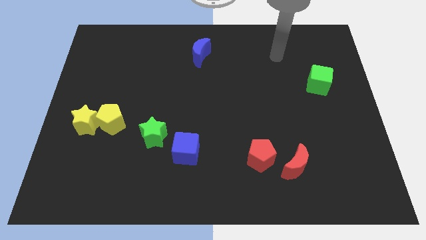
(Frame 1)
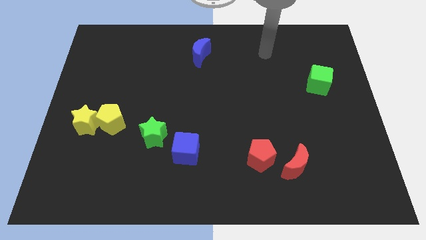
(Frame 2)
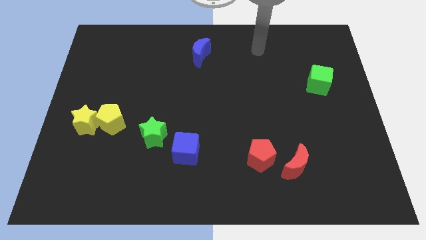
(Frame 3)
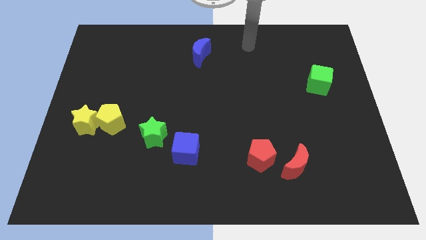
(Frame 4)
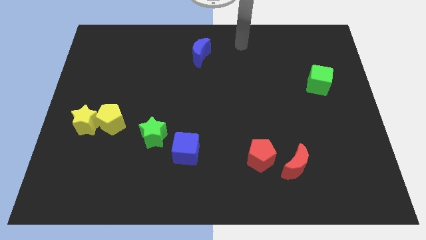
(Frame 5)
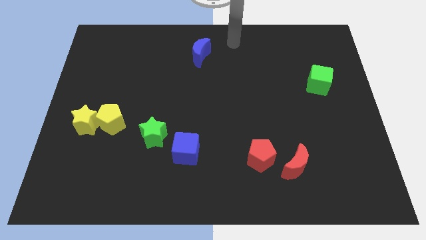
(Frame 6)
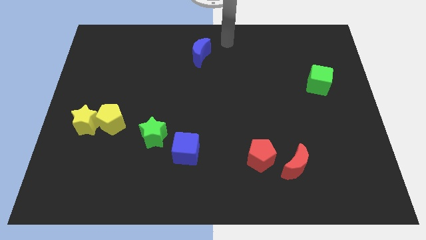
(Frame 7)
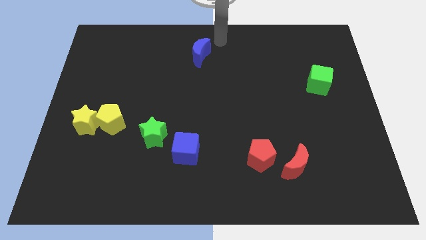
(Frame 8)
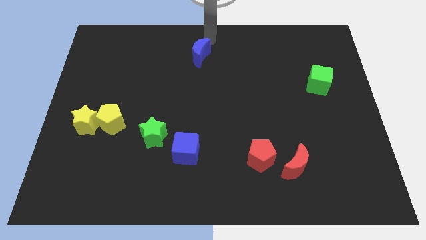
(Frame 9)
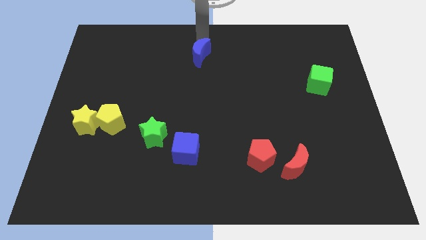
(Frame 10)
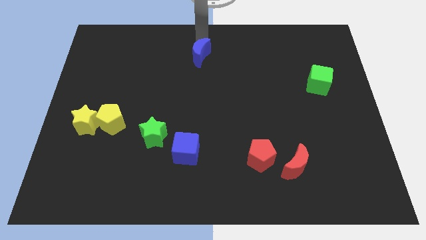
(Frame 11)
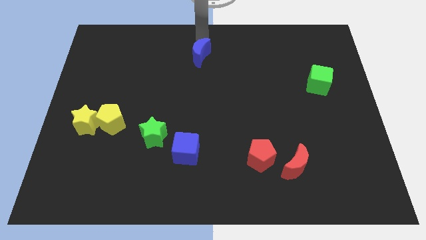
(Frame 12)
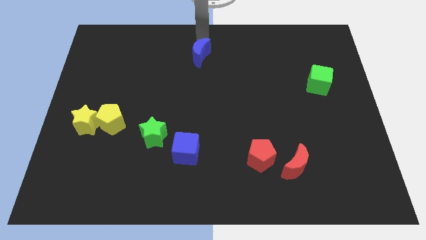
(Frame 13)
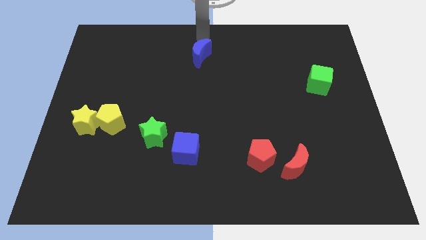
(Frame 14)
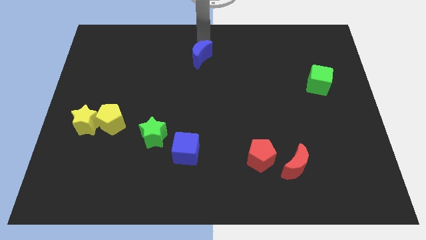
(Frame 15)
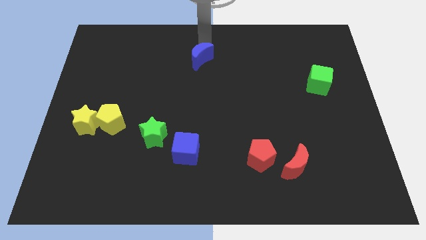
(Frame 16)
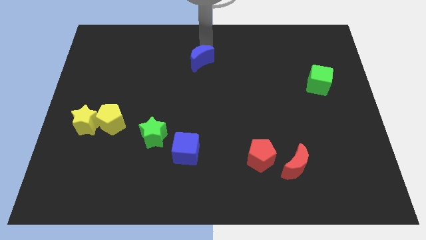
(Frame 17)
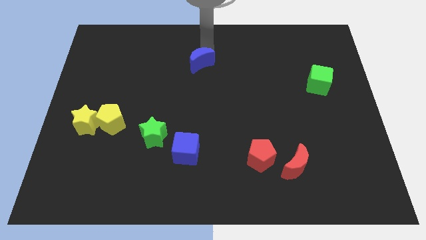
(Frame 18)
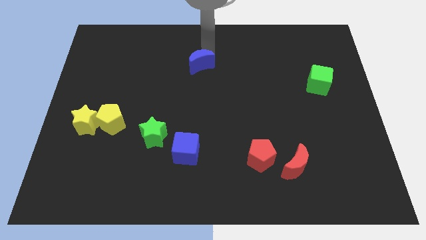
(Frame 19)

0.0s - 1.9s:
slide the blue moon to the middle of the board

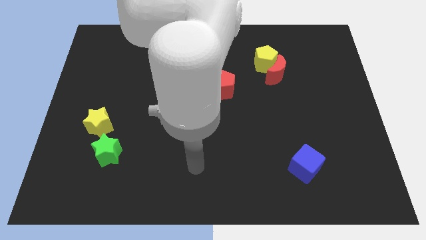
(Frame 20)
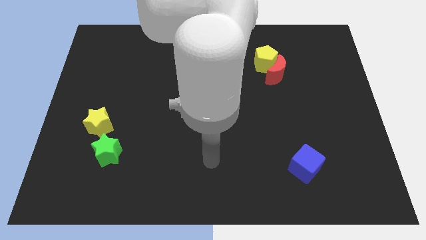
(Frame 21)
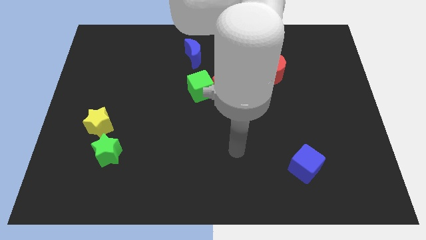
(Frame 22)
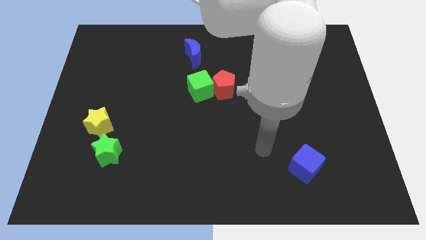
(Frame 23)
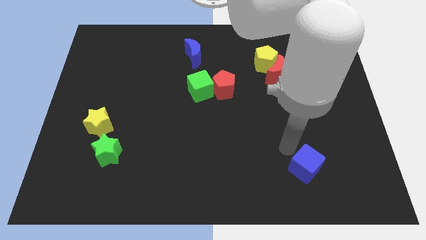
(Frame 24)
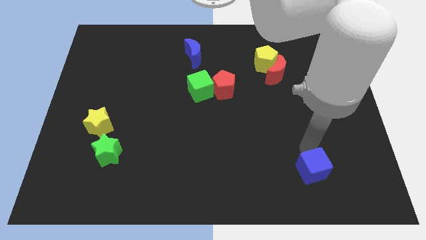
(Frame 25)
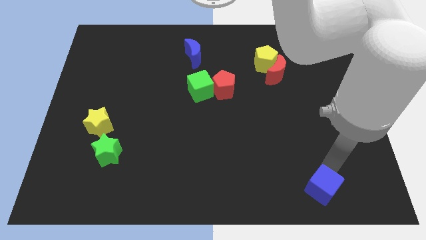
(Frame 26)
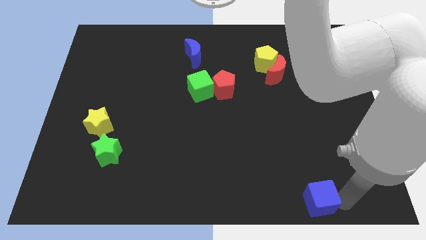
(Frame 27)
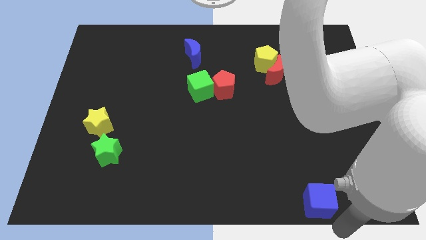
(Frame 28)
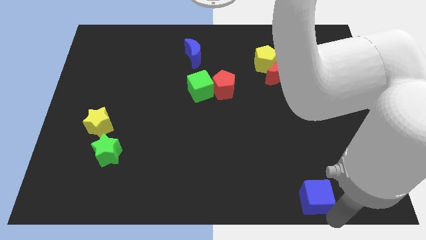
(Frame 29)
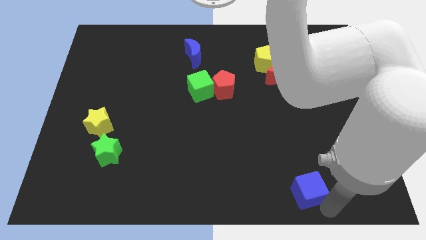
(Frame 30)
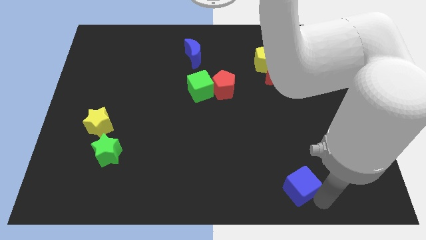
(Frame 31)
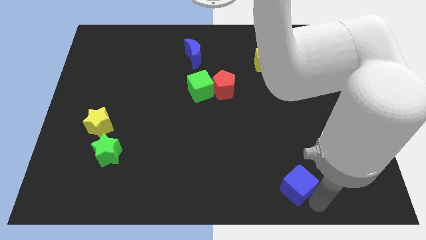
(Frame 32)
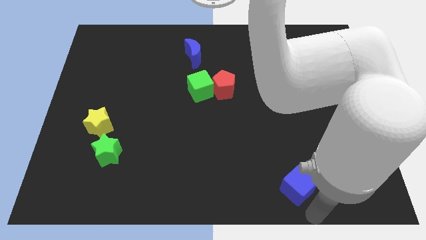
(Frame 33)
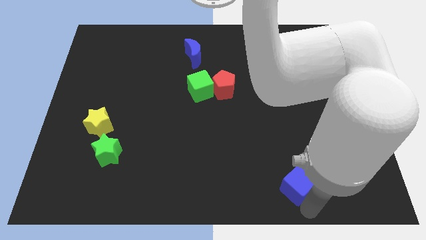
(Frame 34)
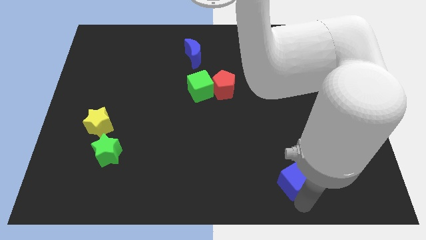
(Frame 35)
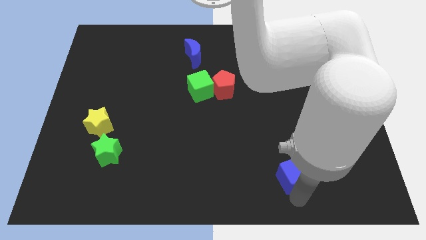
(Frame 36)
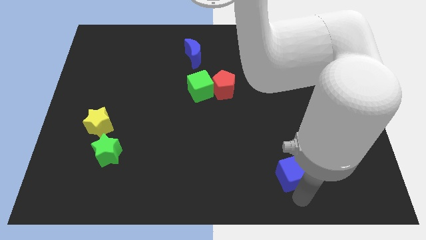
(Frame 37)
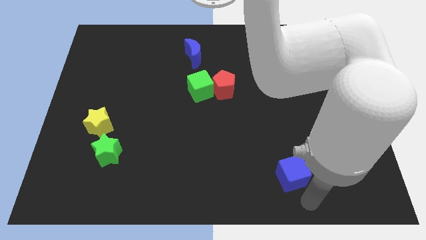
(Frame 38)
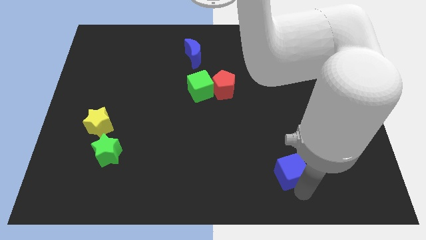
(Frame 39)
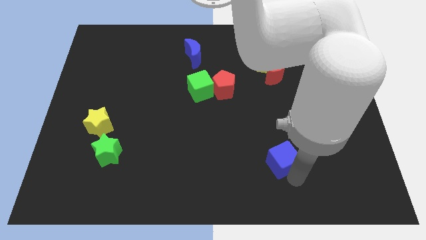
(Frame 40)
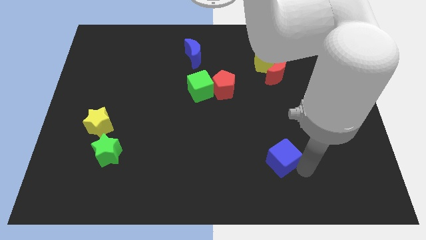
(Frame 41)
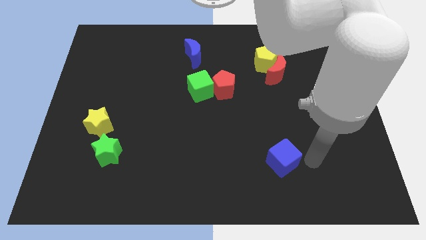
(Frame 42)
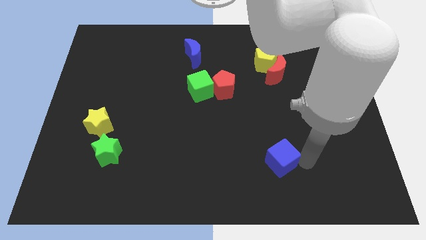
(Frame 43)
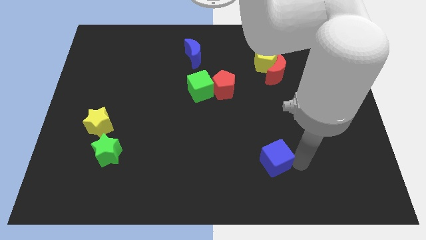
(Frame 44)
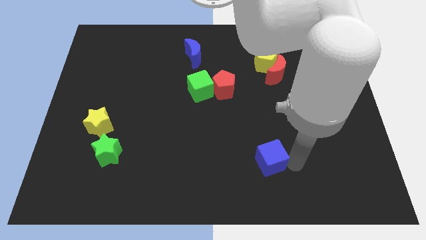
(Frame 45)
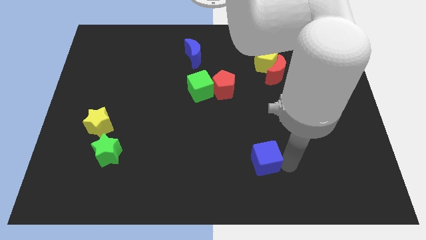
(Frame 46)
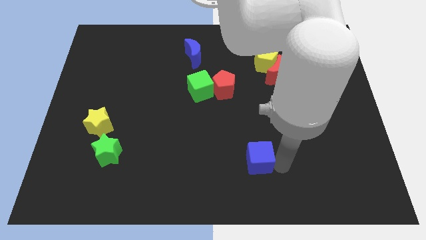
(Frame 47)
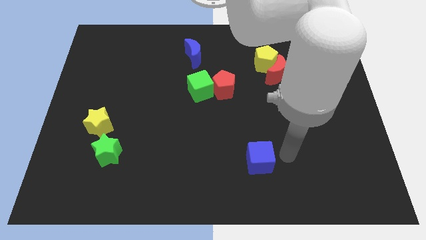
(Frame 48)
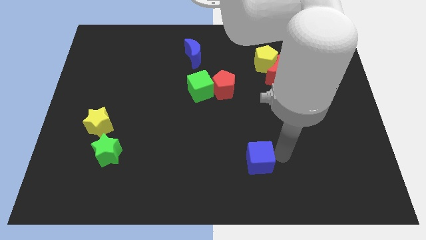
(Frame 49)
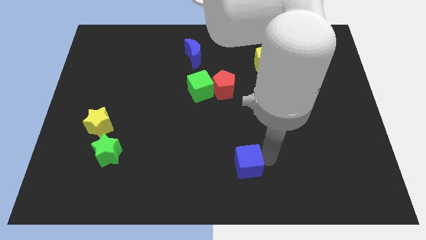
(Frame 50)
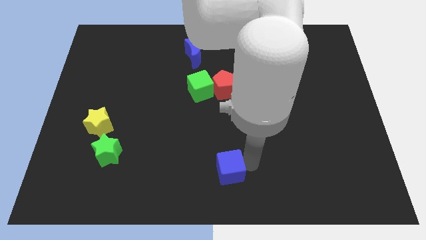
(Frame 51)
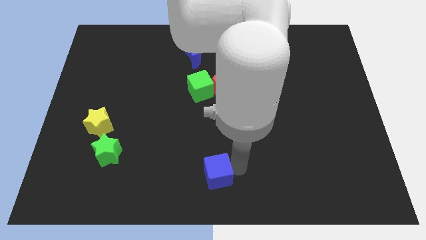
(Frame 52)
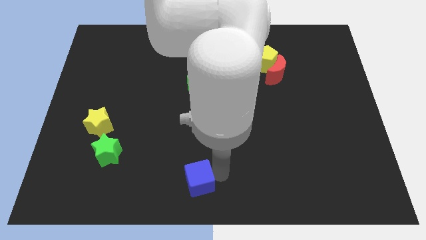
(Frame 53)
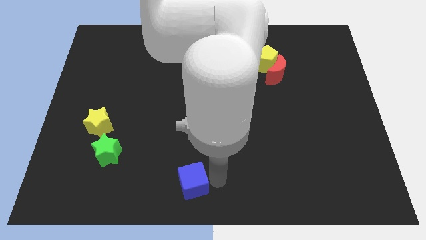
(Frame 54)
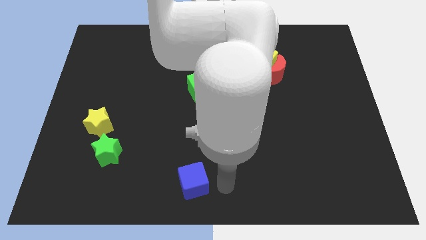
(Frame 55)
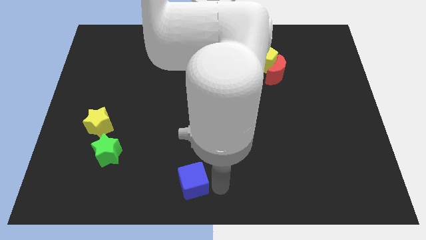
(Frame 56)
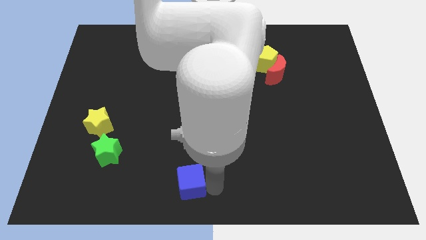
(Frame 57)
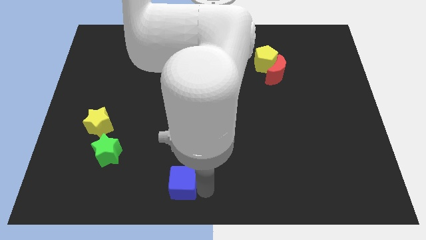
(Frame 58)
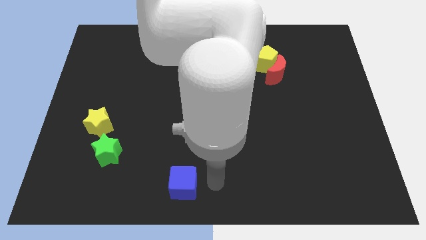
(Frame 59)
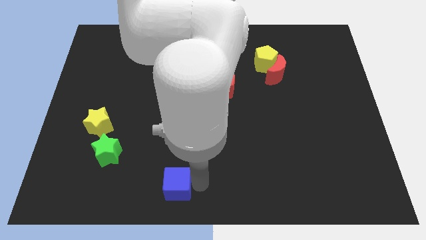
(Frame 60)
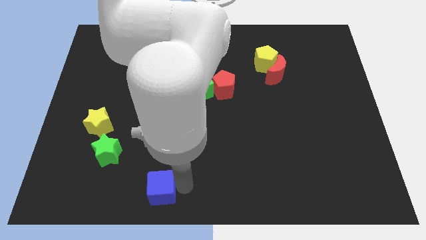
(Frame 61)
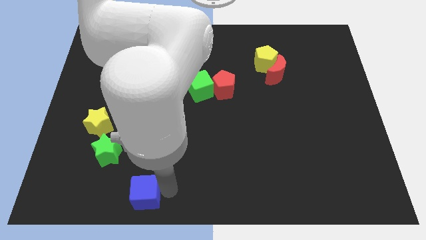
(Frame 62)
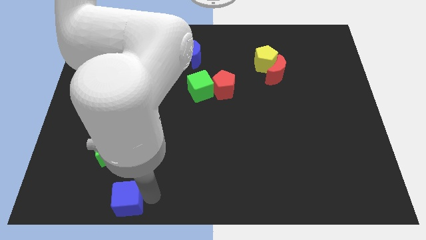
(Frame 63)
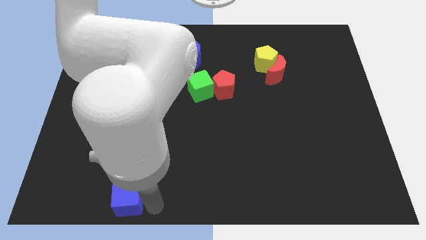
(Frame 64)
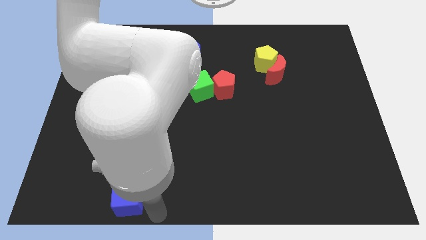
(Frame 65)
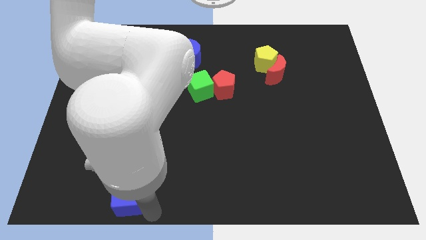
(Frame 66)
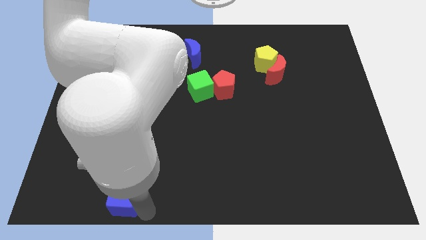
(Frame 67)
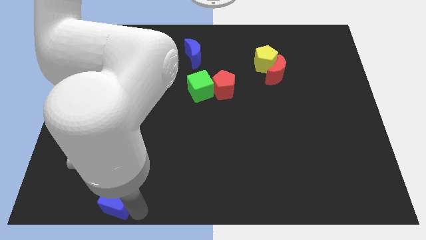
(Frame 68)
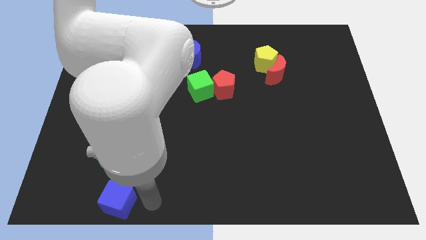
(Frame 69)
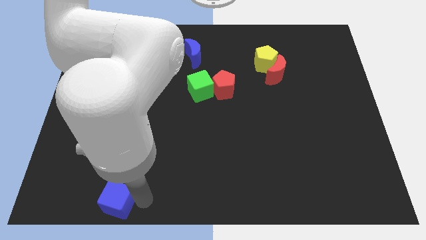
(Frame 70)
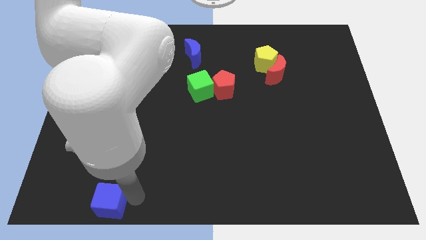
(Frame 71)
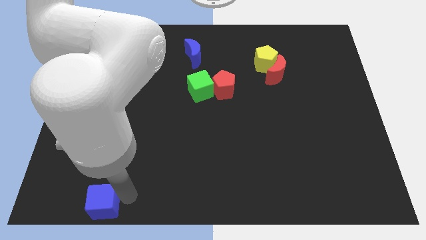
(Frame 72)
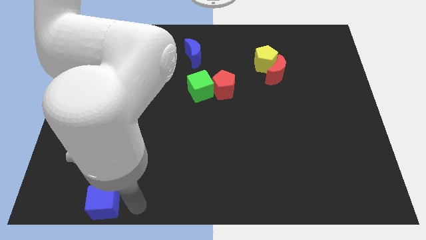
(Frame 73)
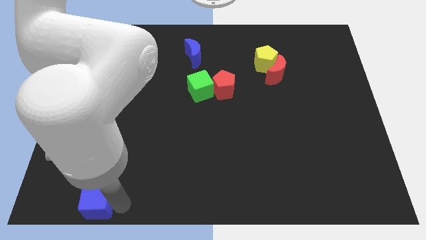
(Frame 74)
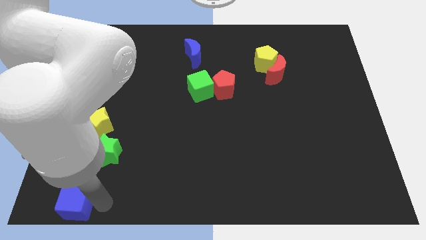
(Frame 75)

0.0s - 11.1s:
put the blue cube to the bottom left corner

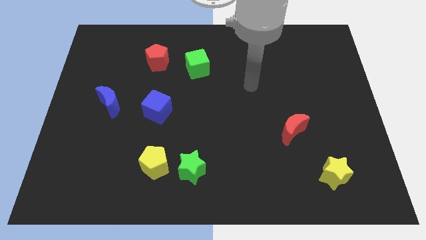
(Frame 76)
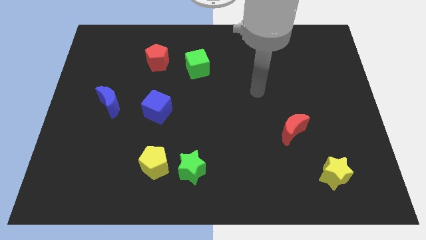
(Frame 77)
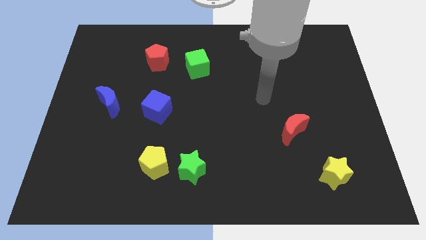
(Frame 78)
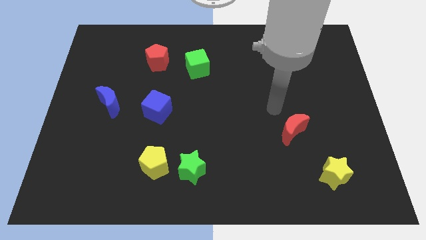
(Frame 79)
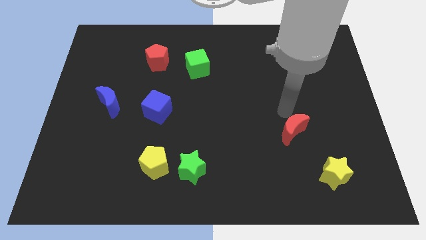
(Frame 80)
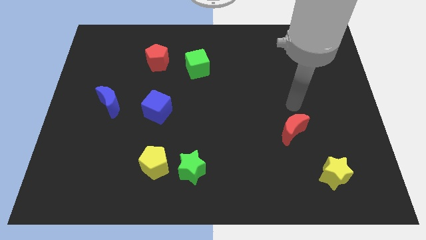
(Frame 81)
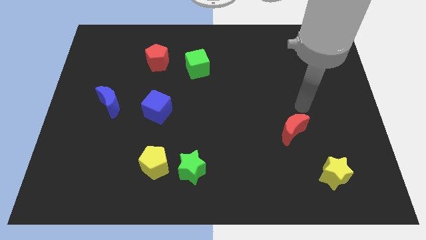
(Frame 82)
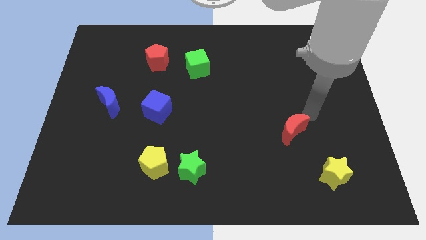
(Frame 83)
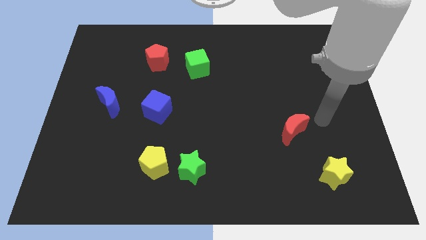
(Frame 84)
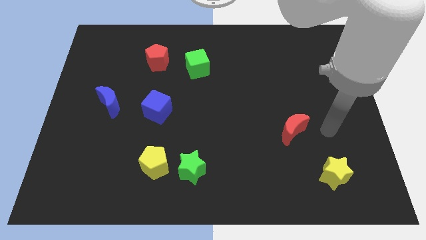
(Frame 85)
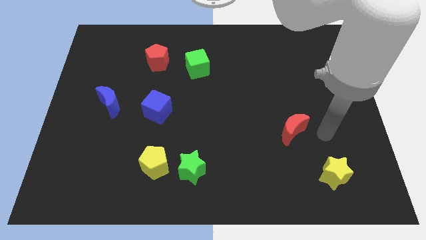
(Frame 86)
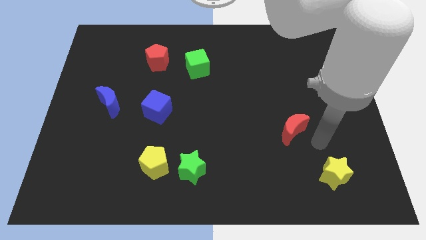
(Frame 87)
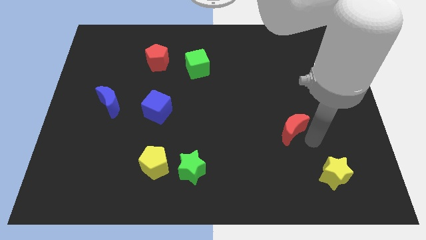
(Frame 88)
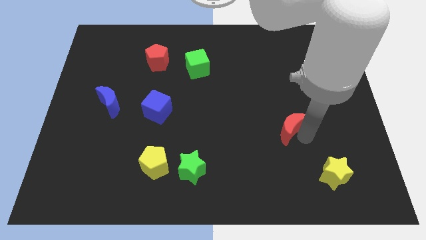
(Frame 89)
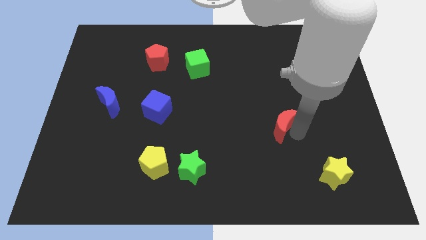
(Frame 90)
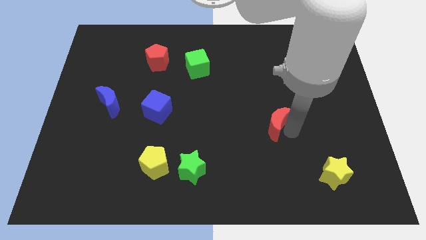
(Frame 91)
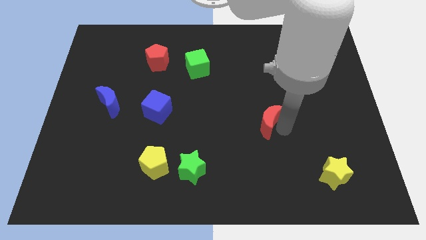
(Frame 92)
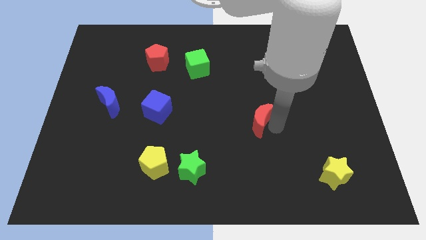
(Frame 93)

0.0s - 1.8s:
move the red moon to the center of the board
